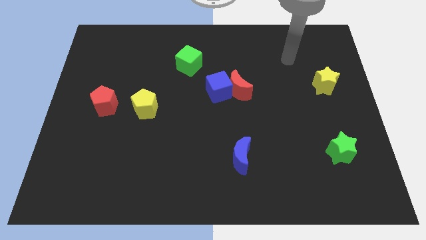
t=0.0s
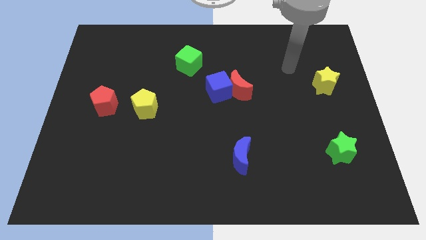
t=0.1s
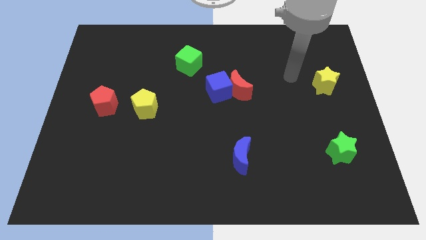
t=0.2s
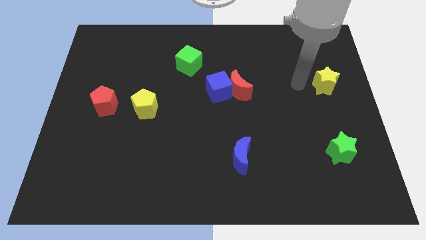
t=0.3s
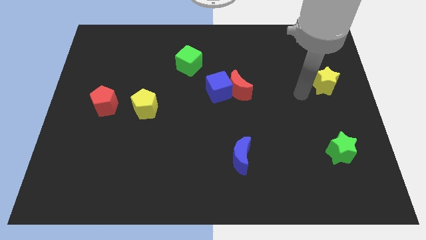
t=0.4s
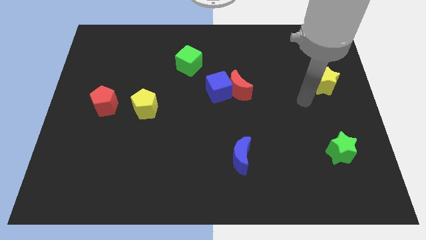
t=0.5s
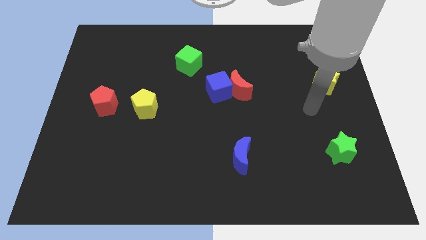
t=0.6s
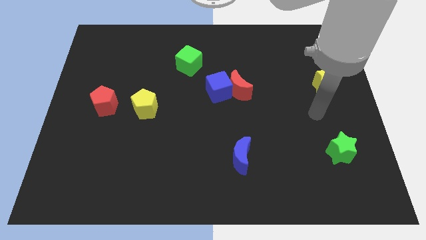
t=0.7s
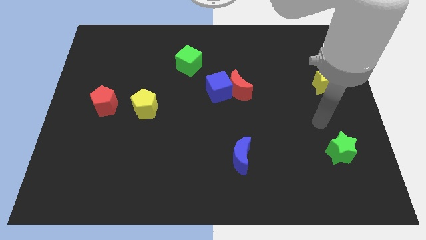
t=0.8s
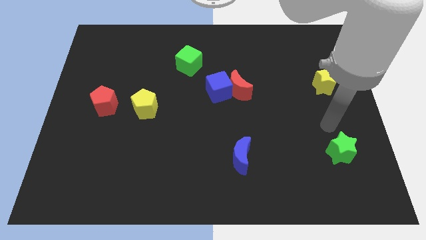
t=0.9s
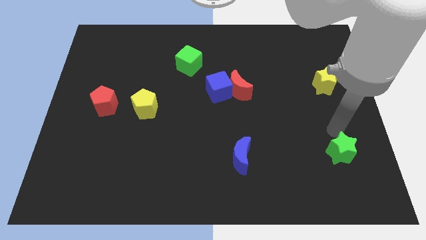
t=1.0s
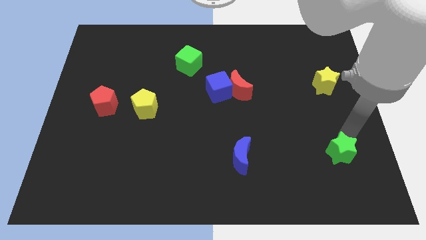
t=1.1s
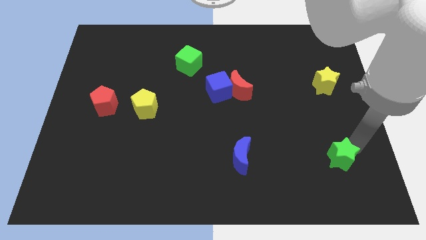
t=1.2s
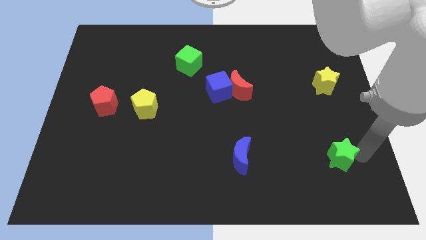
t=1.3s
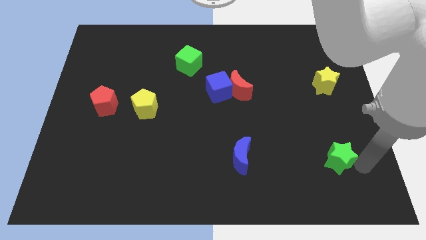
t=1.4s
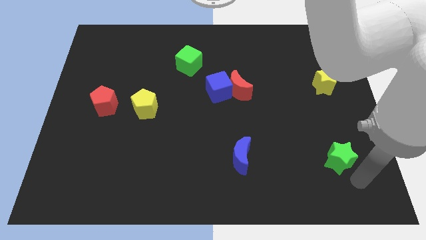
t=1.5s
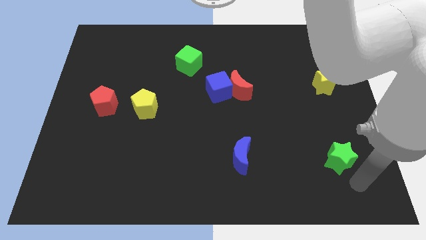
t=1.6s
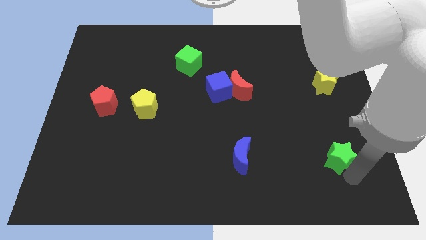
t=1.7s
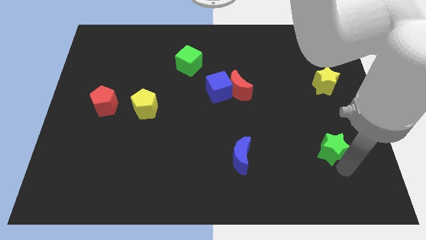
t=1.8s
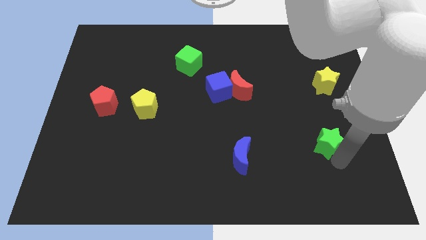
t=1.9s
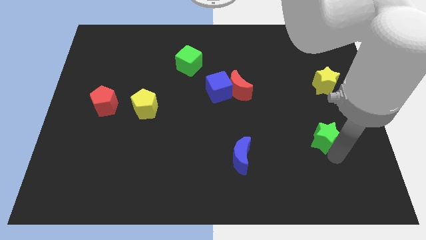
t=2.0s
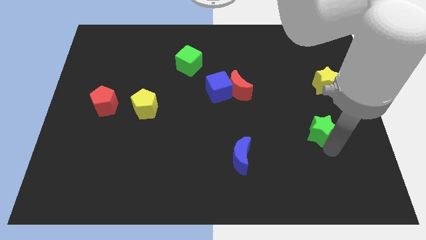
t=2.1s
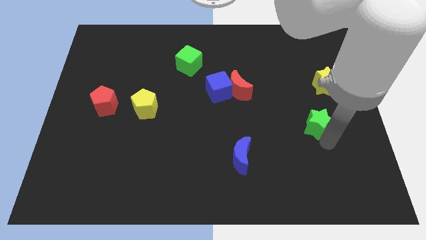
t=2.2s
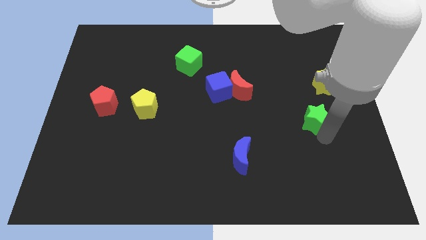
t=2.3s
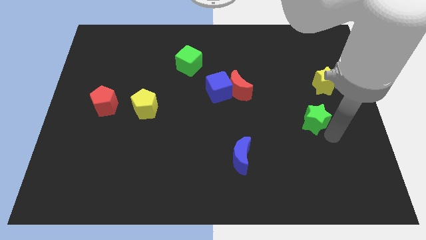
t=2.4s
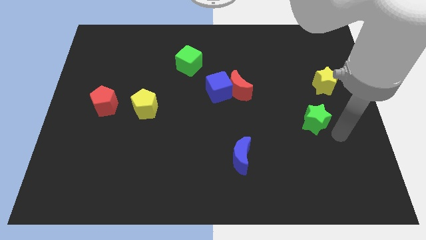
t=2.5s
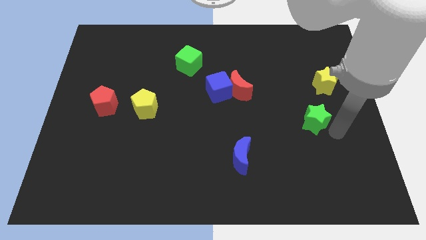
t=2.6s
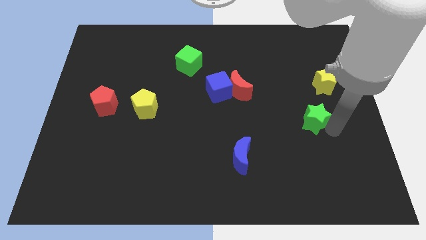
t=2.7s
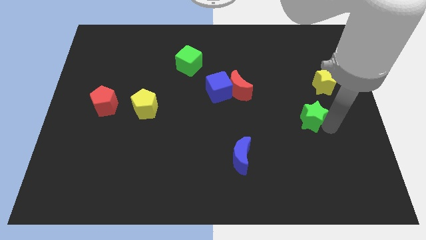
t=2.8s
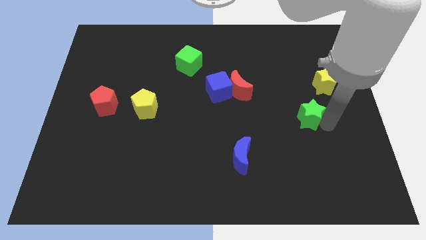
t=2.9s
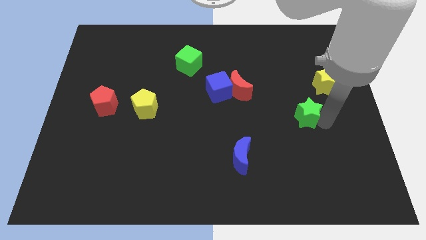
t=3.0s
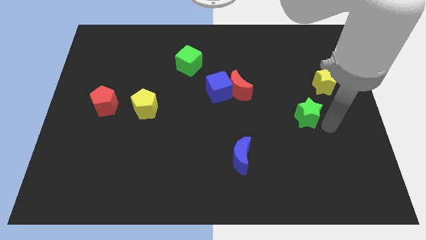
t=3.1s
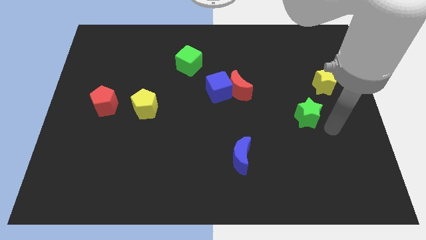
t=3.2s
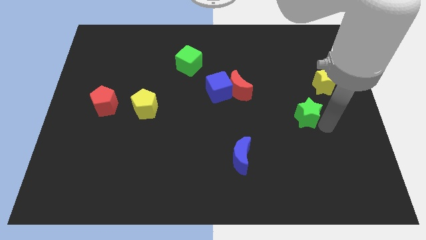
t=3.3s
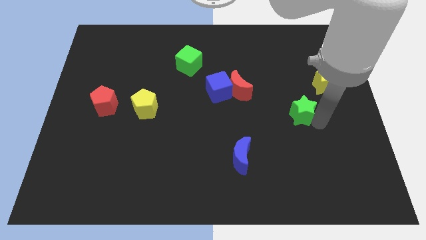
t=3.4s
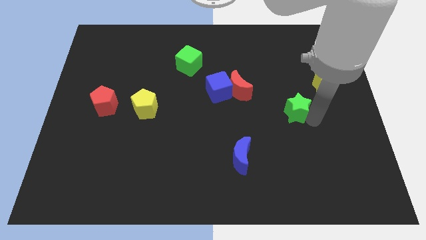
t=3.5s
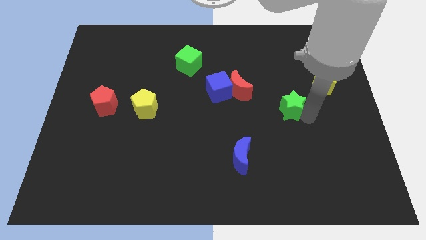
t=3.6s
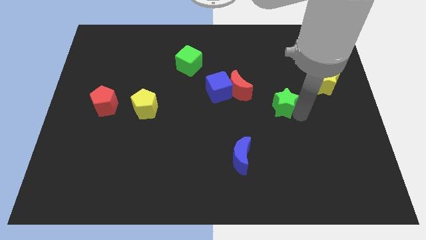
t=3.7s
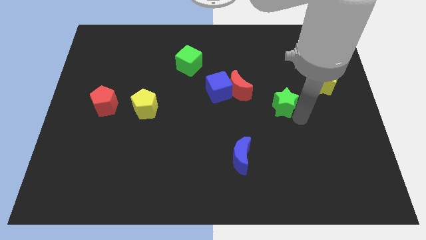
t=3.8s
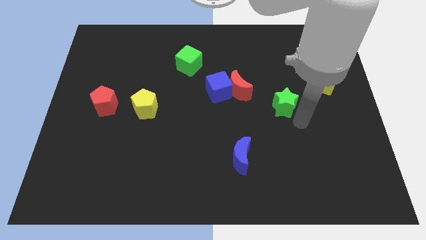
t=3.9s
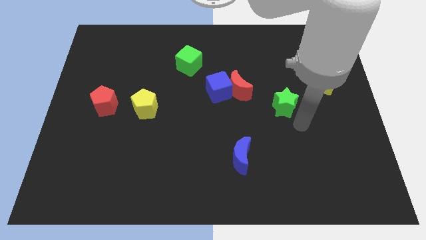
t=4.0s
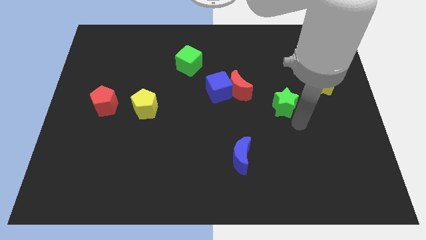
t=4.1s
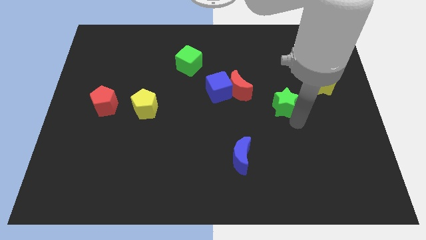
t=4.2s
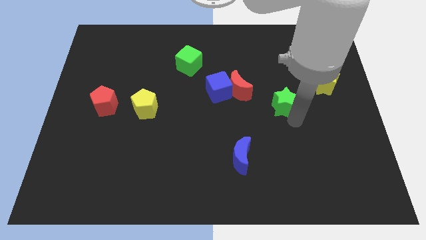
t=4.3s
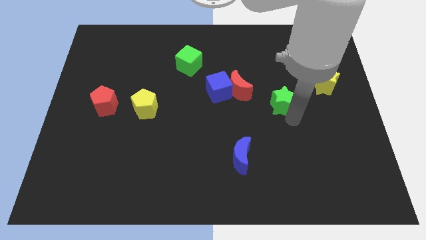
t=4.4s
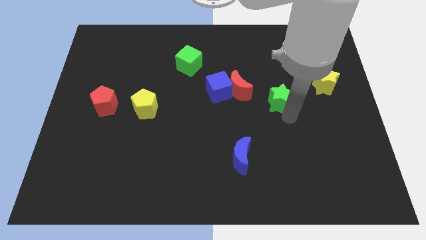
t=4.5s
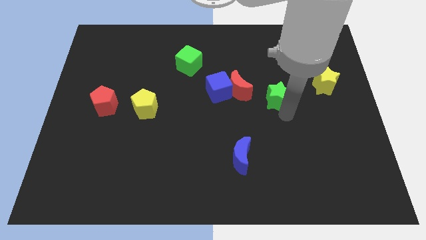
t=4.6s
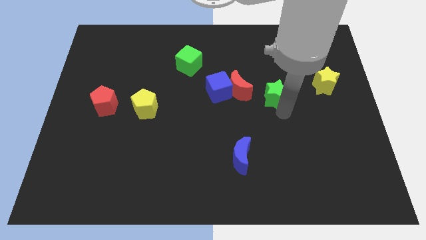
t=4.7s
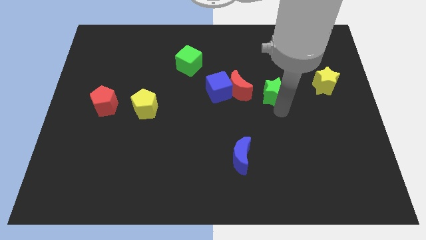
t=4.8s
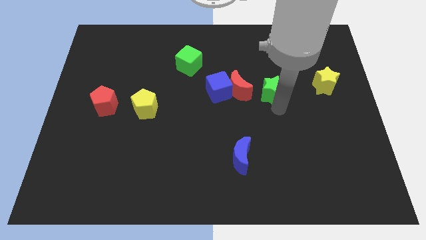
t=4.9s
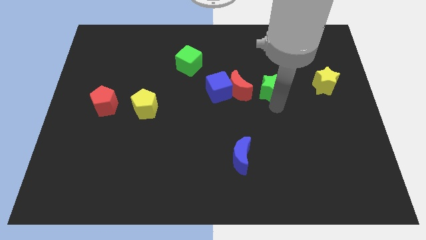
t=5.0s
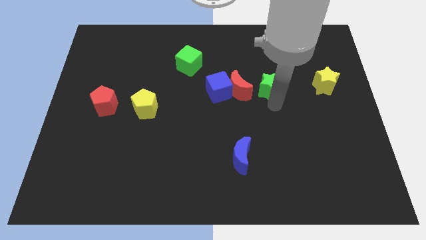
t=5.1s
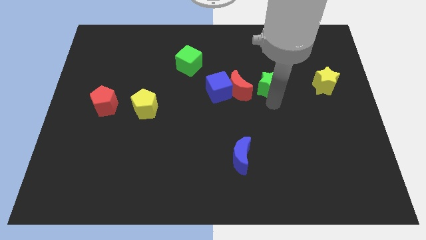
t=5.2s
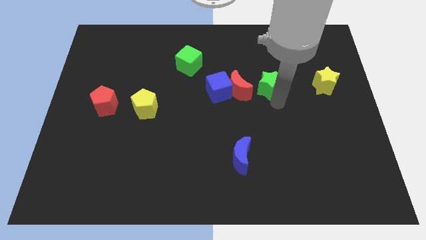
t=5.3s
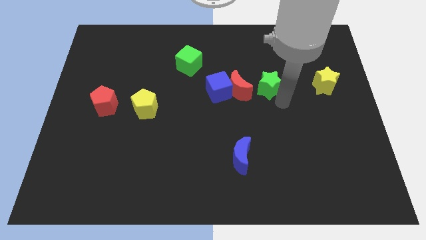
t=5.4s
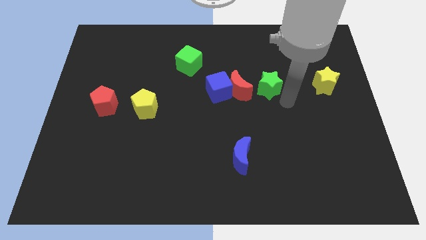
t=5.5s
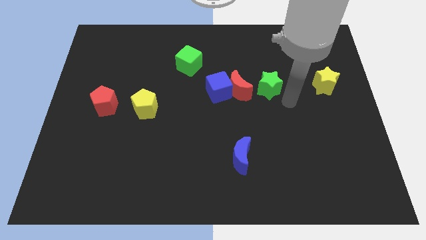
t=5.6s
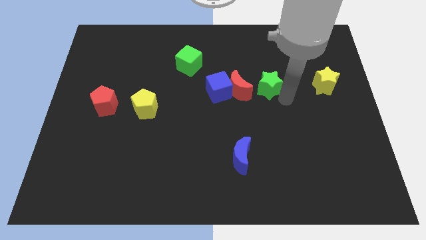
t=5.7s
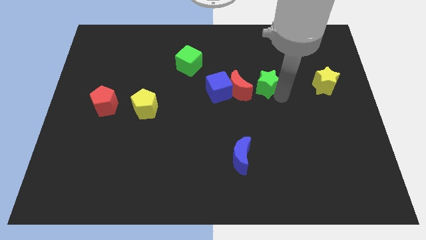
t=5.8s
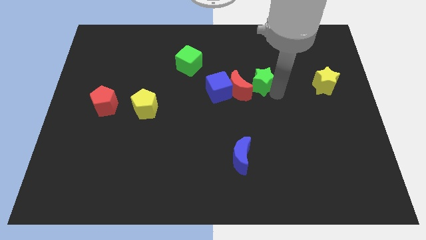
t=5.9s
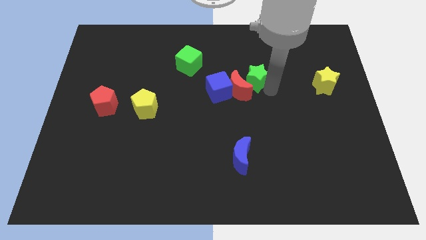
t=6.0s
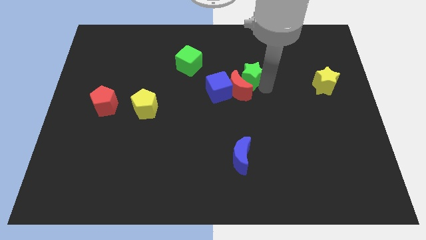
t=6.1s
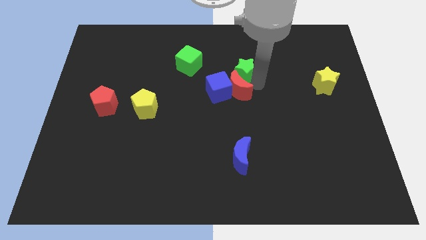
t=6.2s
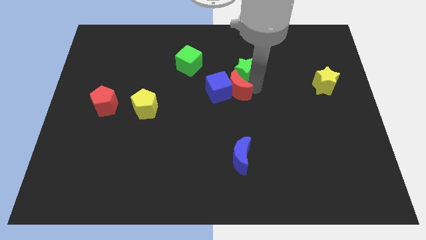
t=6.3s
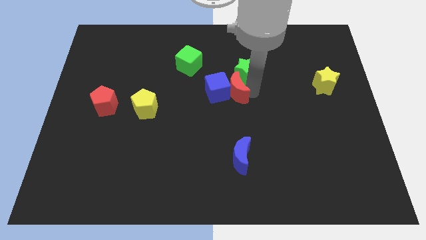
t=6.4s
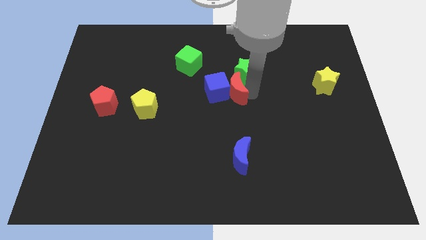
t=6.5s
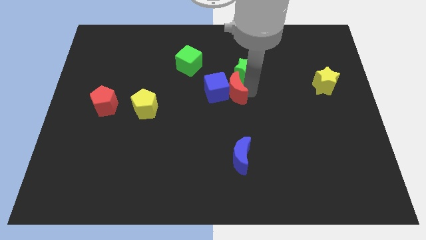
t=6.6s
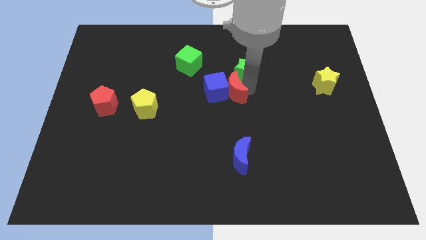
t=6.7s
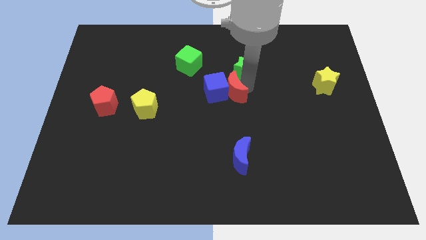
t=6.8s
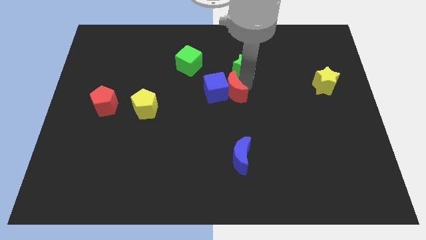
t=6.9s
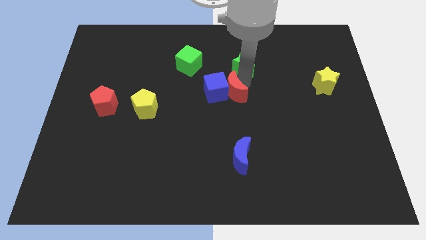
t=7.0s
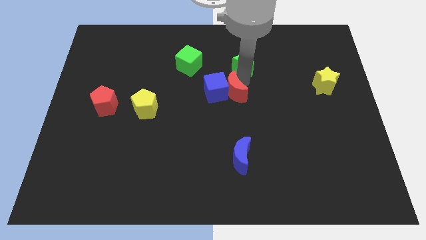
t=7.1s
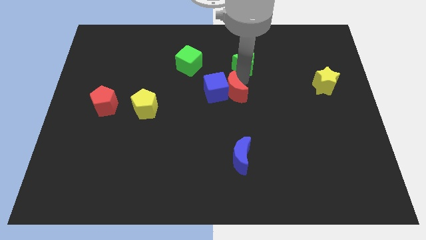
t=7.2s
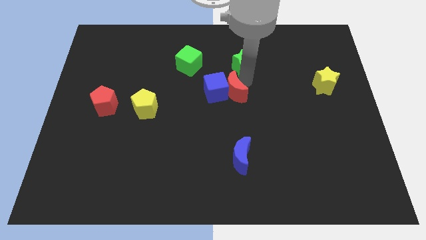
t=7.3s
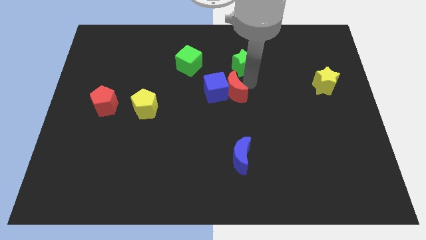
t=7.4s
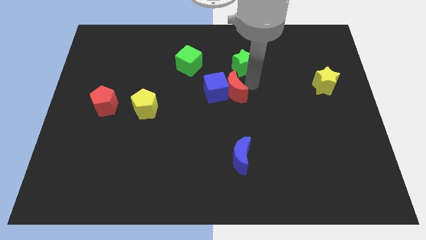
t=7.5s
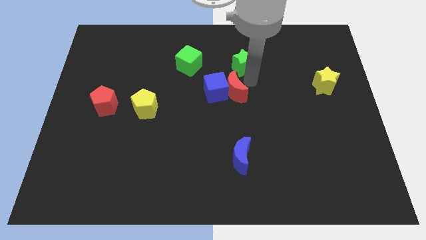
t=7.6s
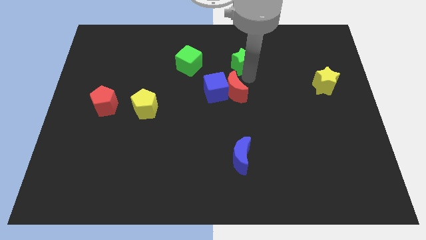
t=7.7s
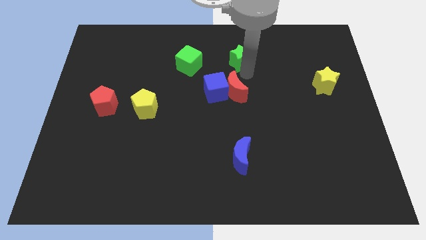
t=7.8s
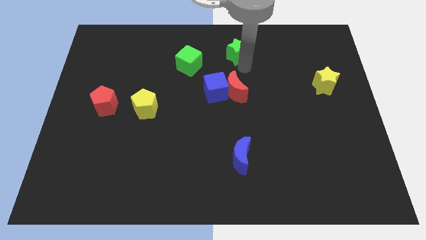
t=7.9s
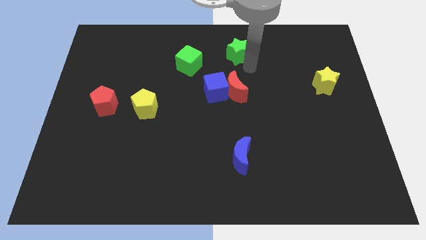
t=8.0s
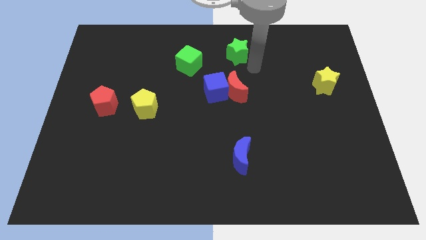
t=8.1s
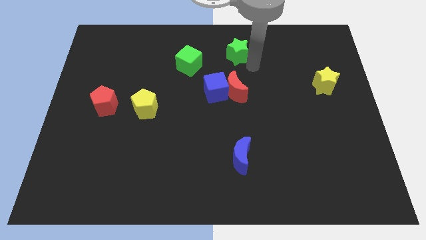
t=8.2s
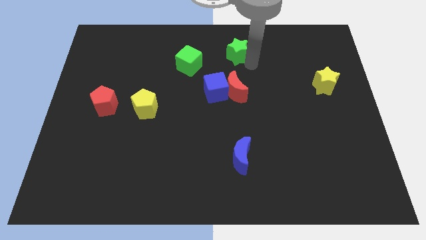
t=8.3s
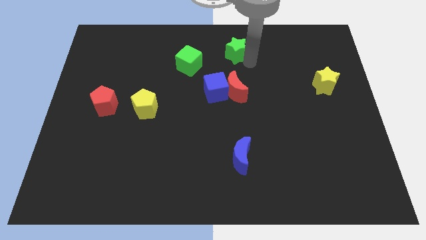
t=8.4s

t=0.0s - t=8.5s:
push the green star to the top side
